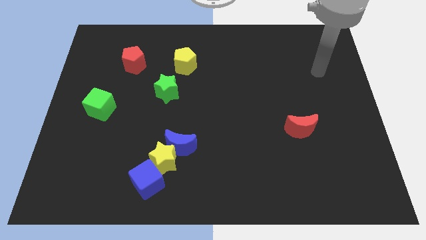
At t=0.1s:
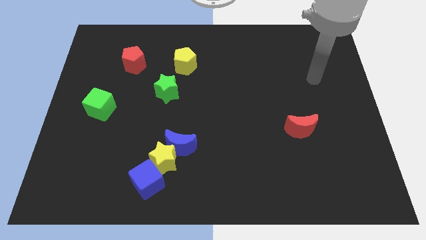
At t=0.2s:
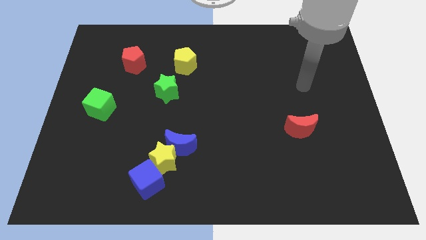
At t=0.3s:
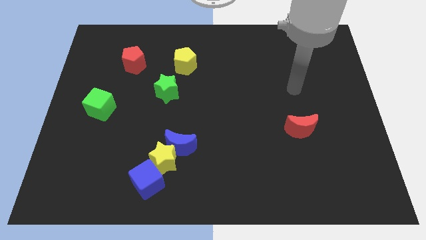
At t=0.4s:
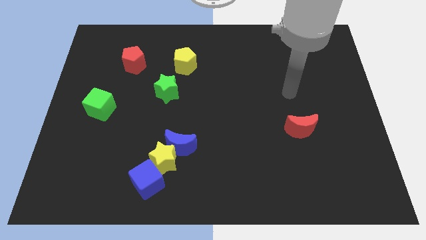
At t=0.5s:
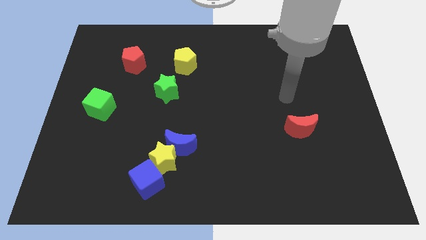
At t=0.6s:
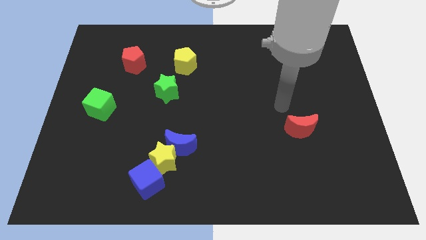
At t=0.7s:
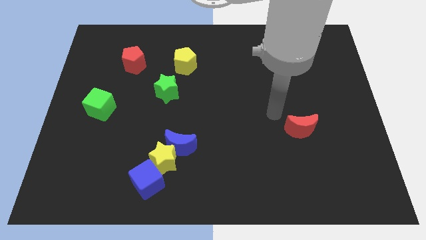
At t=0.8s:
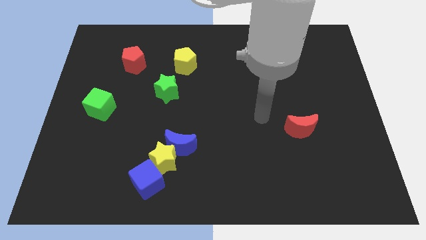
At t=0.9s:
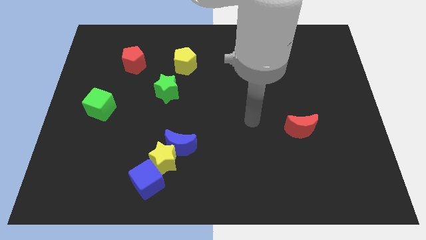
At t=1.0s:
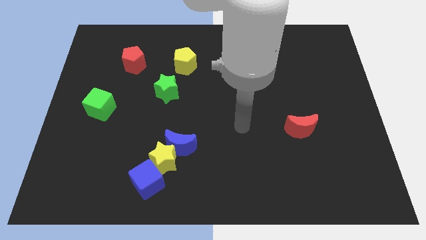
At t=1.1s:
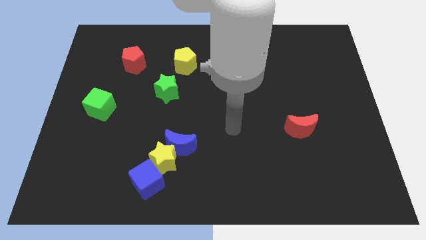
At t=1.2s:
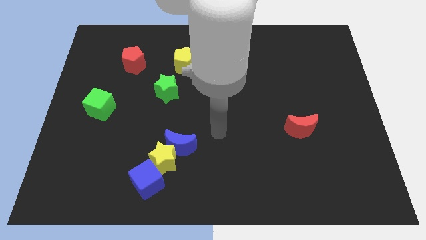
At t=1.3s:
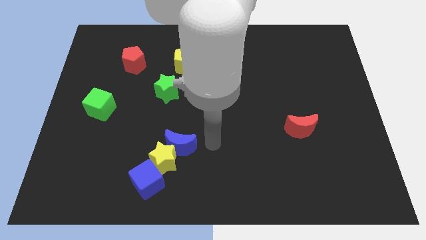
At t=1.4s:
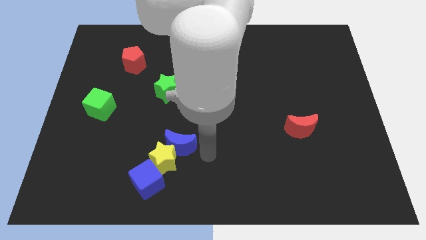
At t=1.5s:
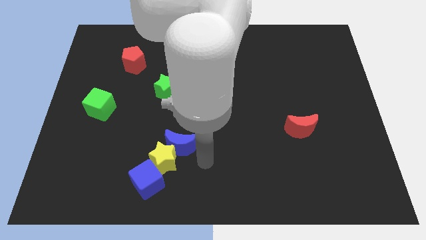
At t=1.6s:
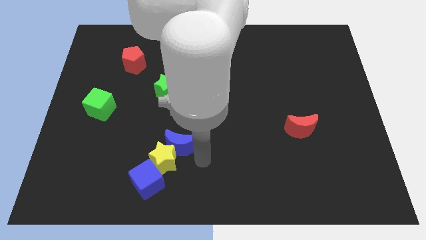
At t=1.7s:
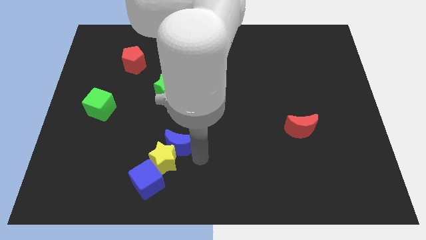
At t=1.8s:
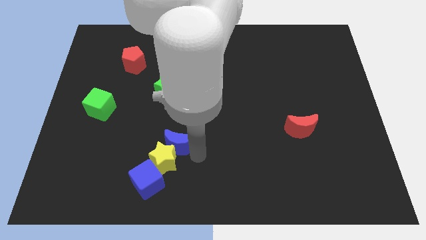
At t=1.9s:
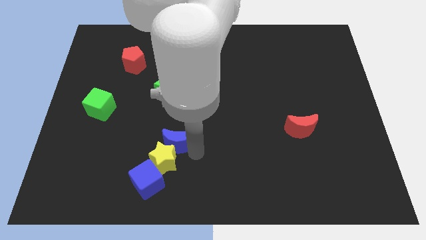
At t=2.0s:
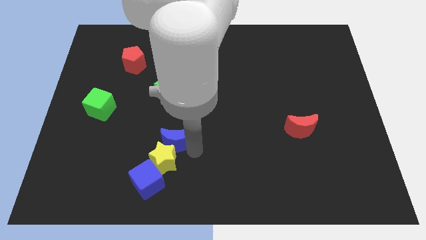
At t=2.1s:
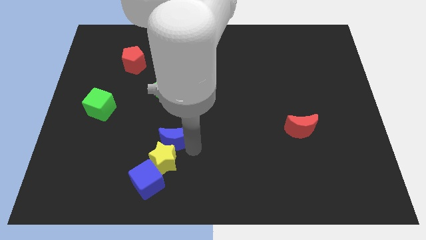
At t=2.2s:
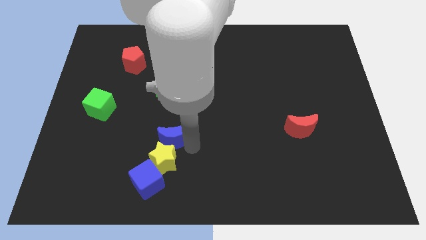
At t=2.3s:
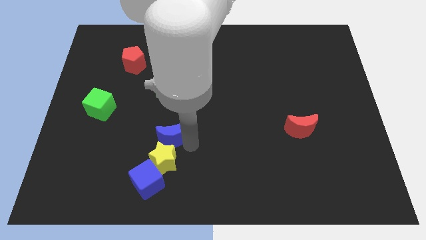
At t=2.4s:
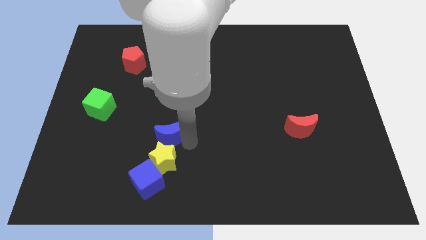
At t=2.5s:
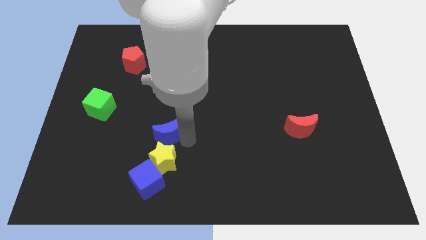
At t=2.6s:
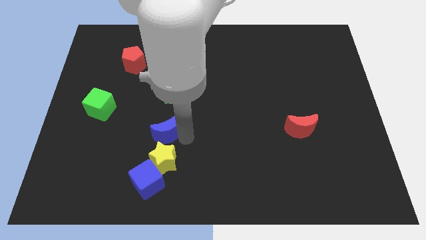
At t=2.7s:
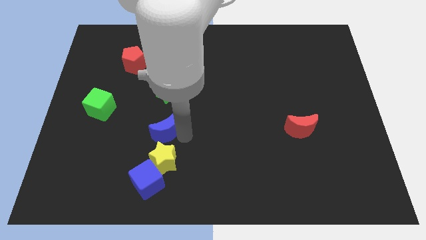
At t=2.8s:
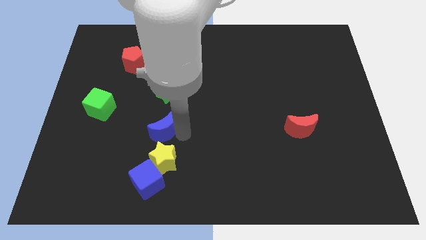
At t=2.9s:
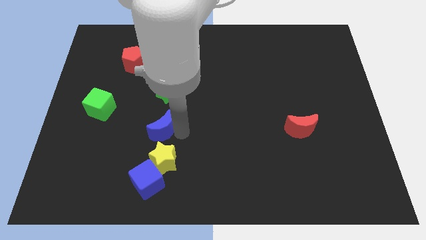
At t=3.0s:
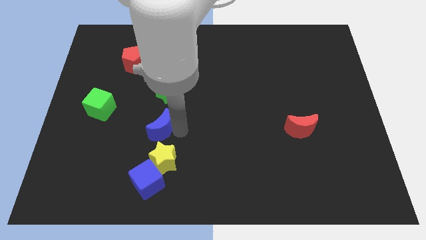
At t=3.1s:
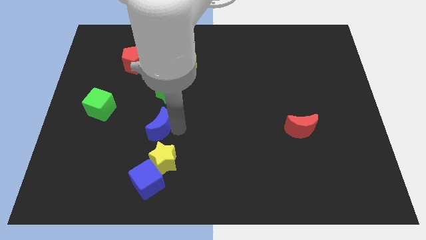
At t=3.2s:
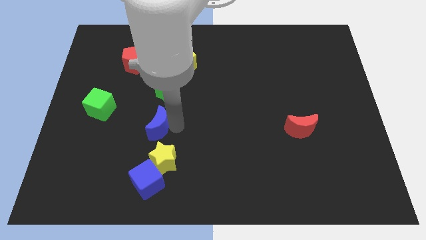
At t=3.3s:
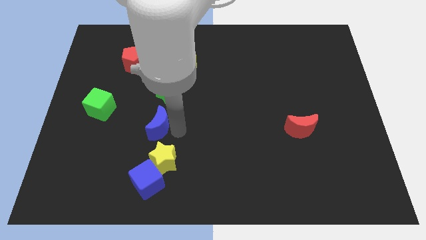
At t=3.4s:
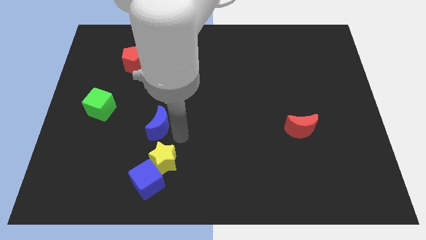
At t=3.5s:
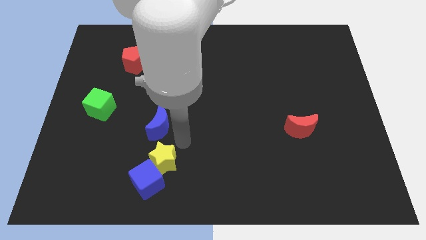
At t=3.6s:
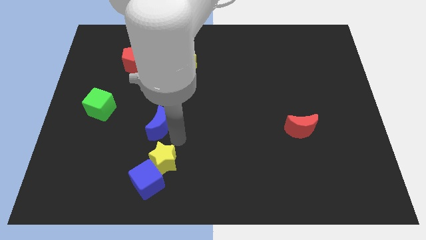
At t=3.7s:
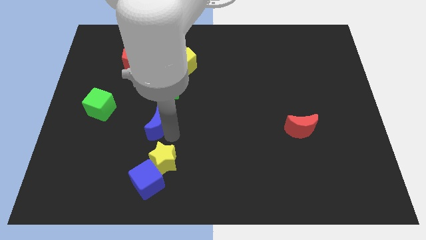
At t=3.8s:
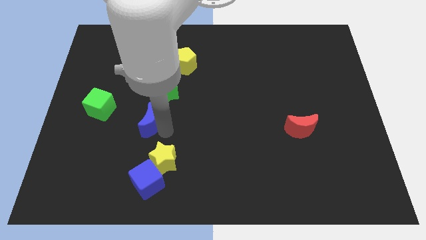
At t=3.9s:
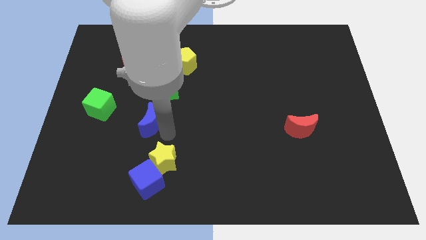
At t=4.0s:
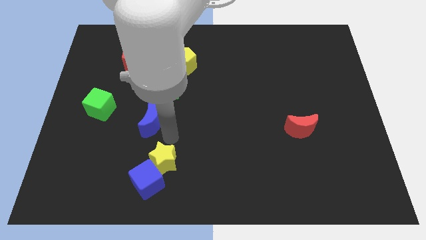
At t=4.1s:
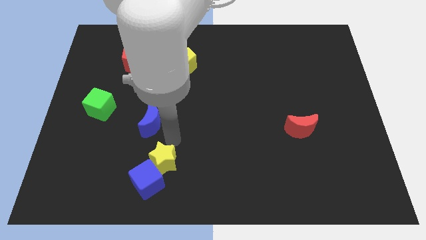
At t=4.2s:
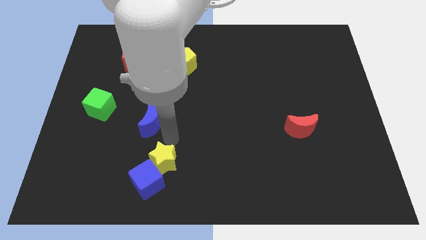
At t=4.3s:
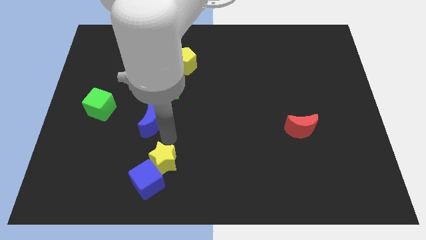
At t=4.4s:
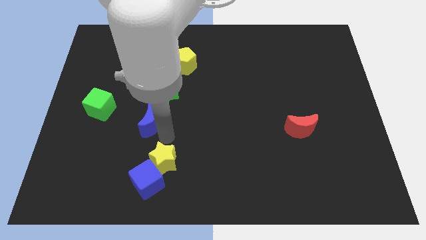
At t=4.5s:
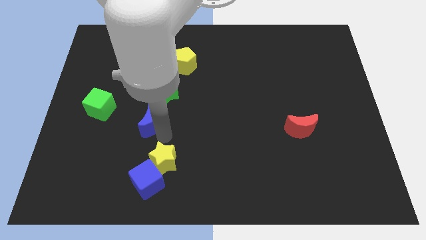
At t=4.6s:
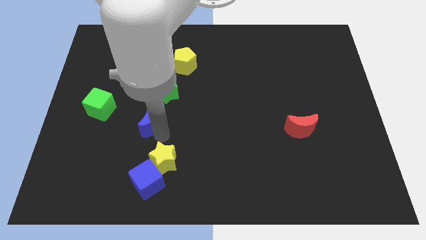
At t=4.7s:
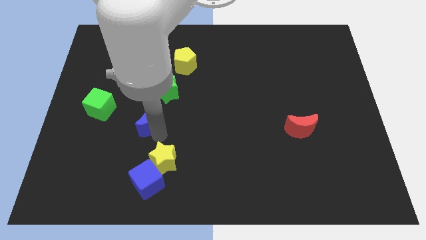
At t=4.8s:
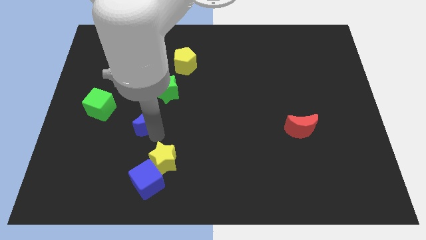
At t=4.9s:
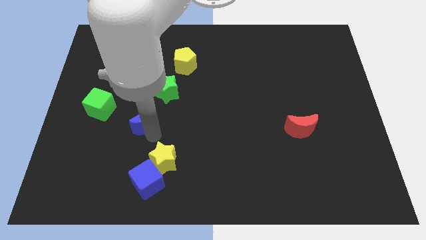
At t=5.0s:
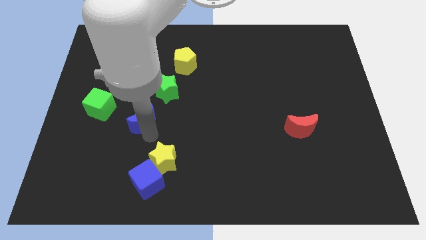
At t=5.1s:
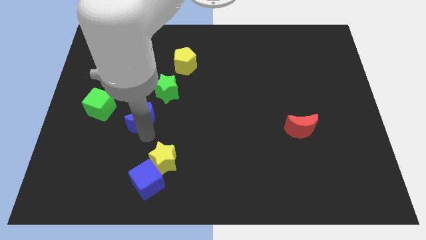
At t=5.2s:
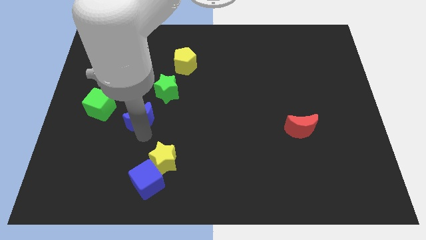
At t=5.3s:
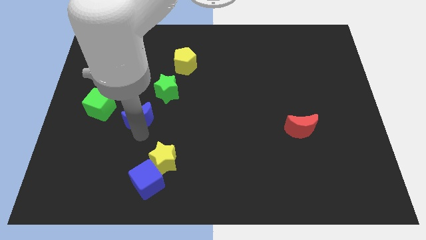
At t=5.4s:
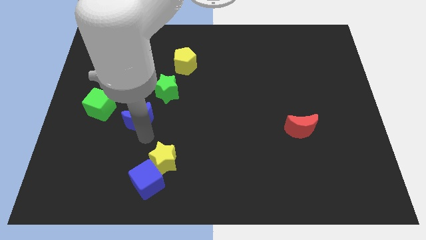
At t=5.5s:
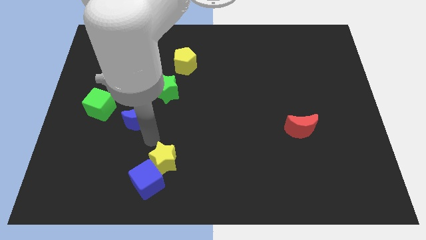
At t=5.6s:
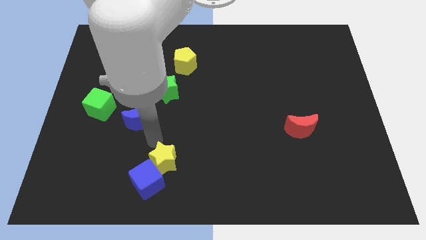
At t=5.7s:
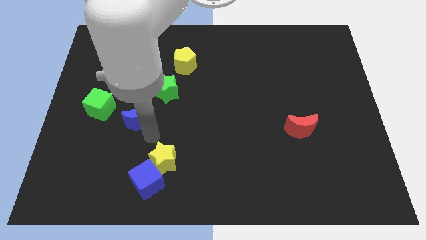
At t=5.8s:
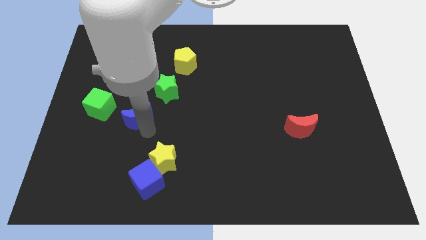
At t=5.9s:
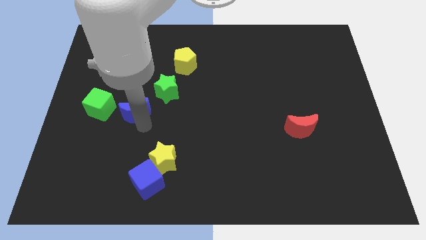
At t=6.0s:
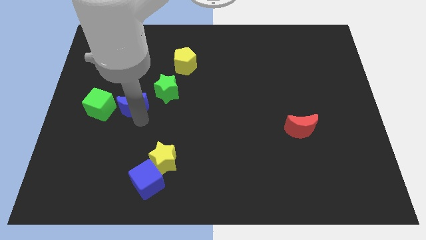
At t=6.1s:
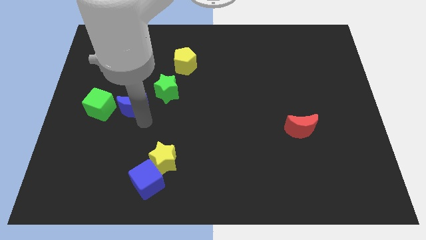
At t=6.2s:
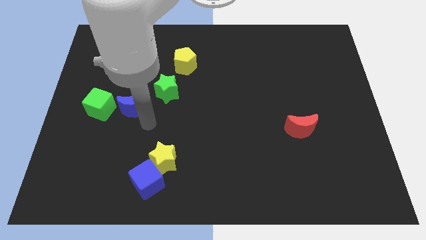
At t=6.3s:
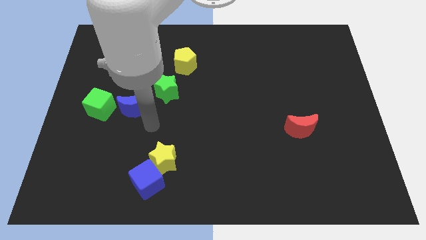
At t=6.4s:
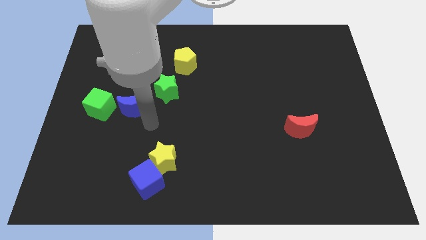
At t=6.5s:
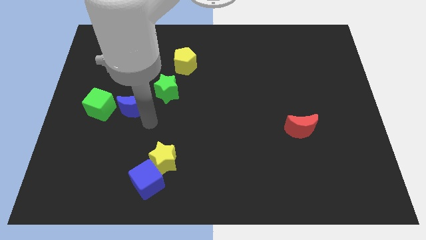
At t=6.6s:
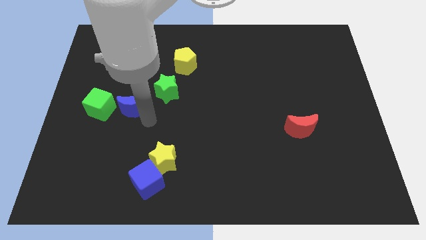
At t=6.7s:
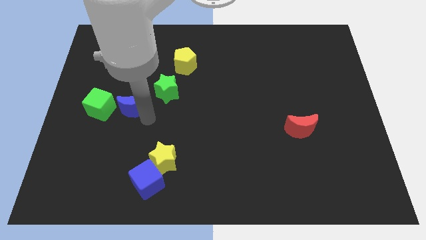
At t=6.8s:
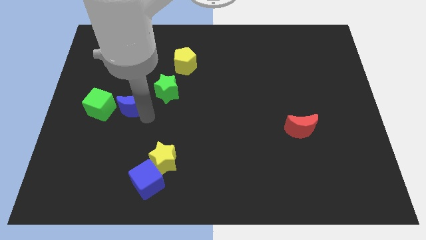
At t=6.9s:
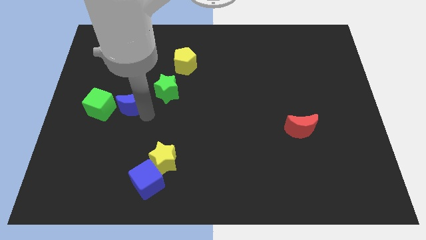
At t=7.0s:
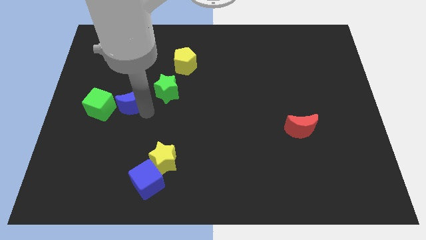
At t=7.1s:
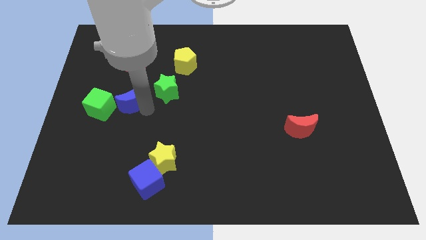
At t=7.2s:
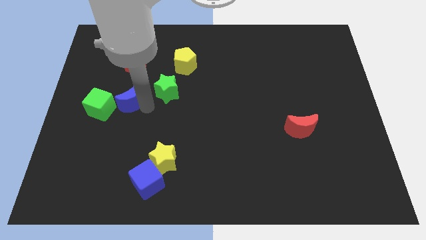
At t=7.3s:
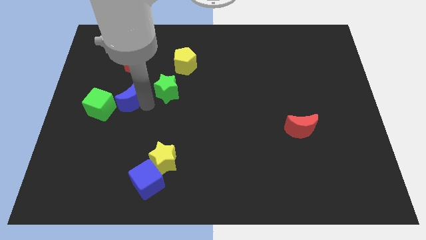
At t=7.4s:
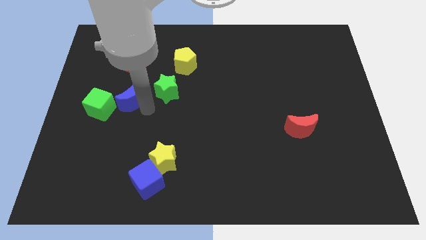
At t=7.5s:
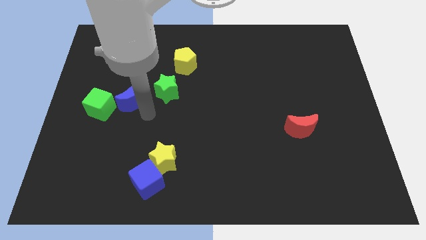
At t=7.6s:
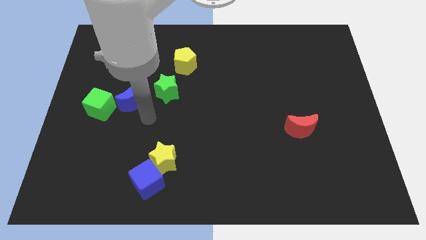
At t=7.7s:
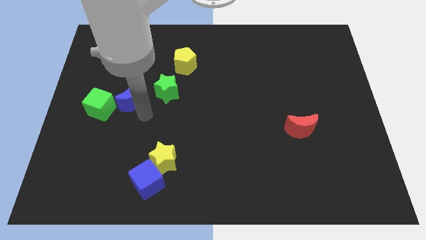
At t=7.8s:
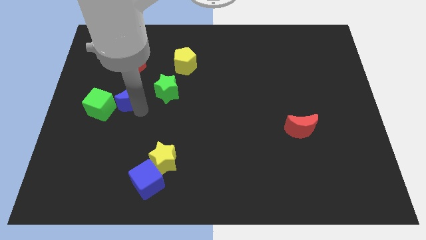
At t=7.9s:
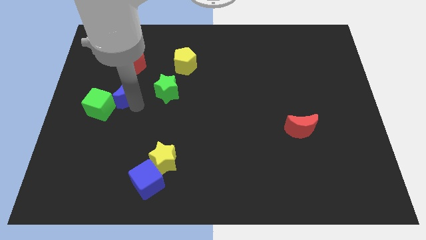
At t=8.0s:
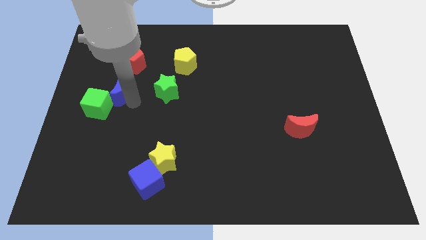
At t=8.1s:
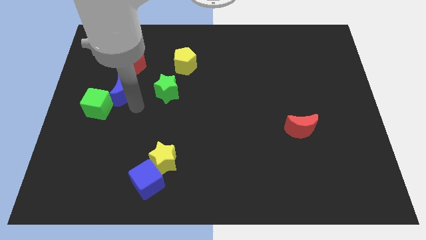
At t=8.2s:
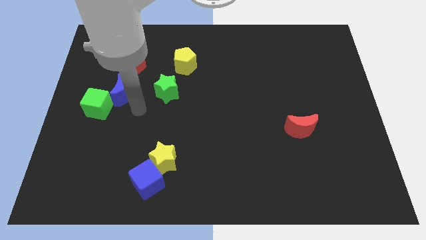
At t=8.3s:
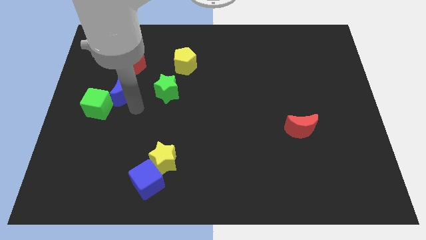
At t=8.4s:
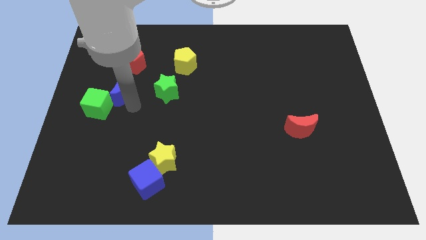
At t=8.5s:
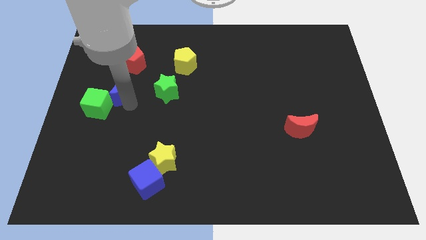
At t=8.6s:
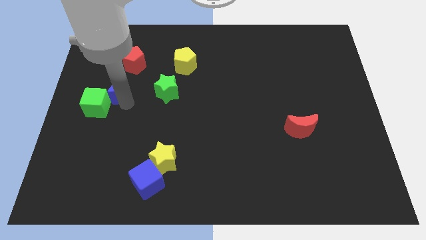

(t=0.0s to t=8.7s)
slide the blue moon to the top of the green cube
